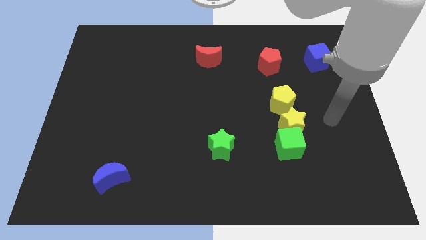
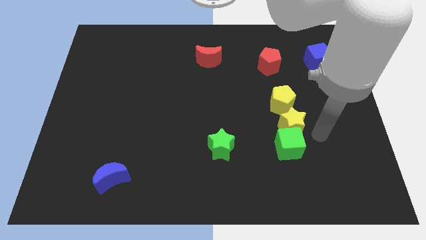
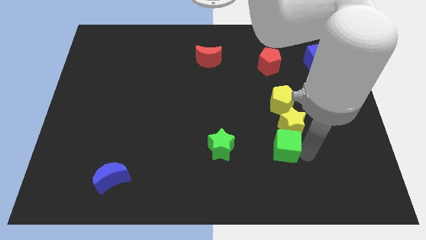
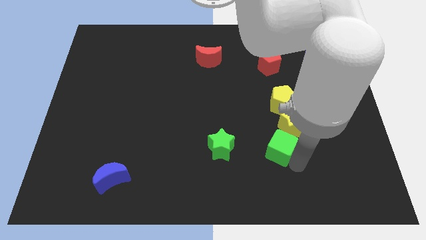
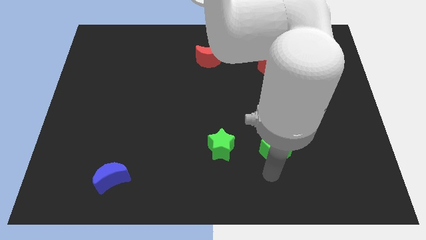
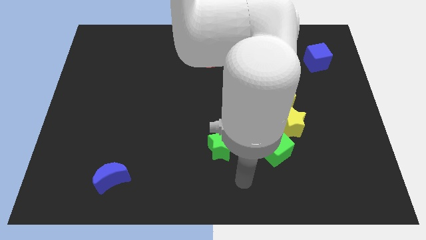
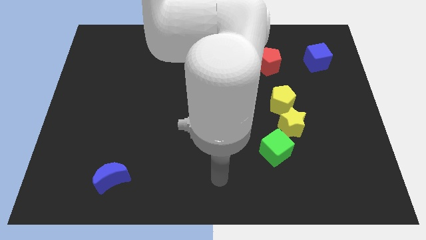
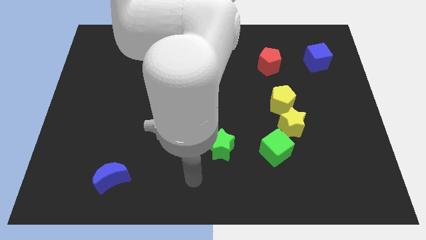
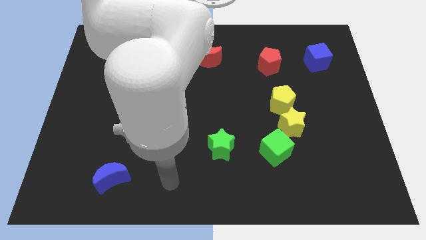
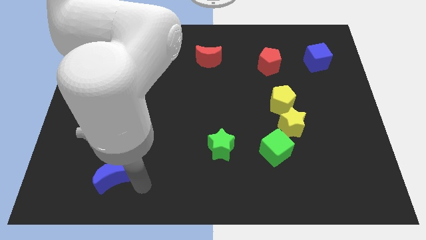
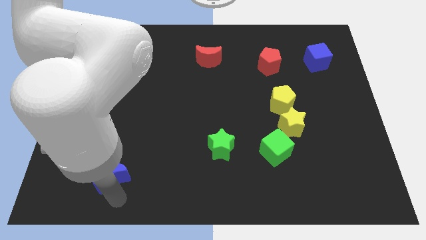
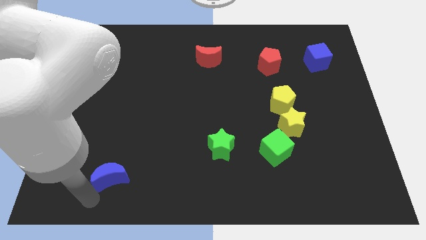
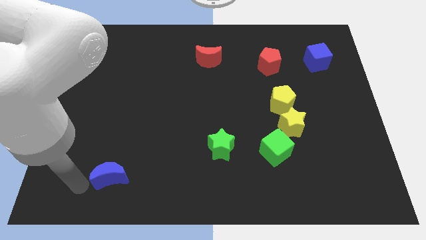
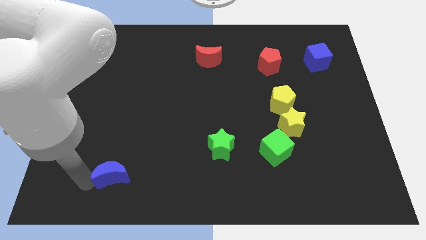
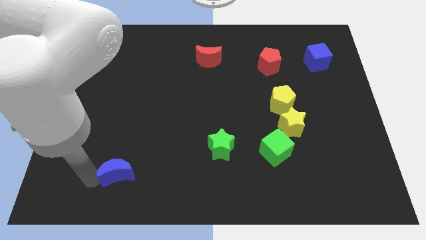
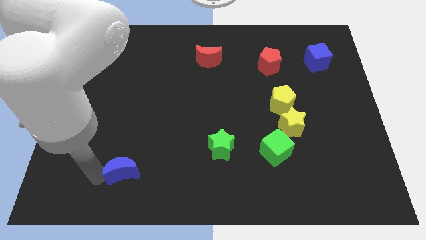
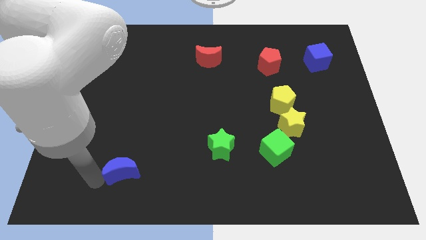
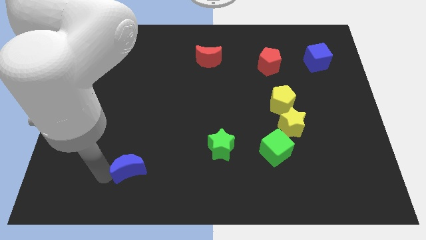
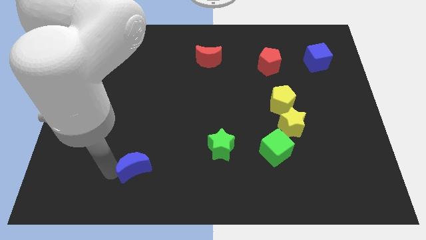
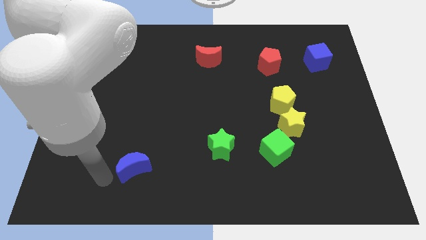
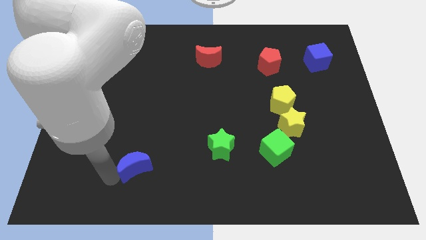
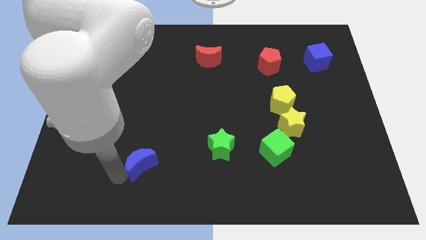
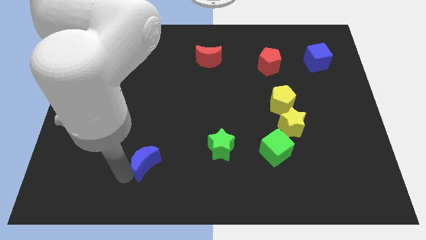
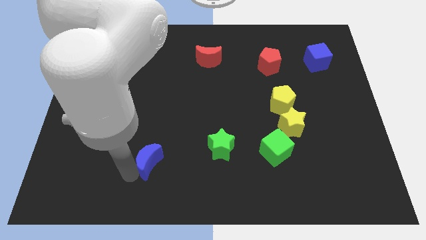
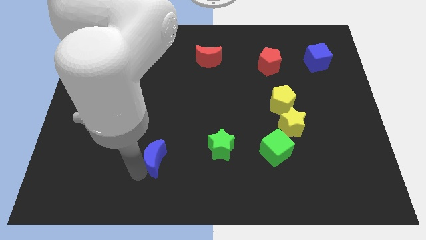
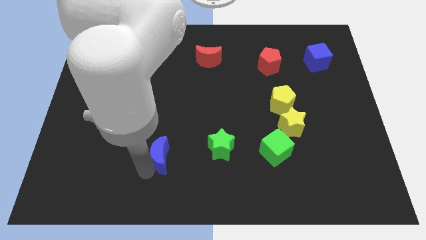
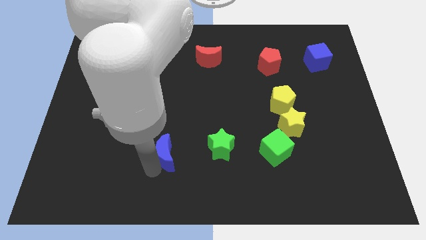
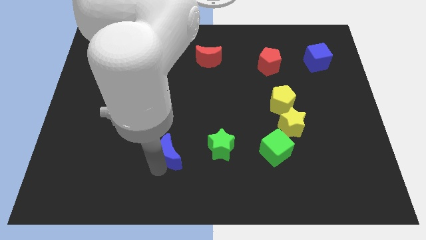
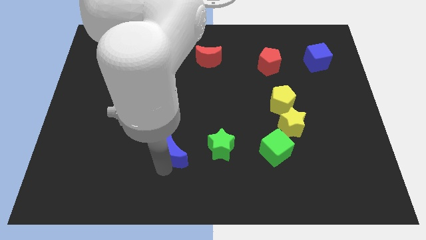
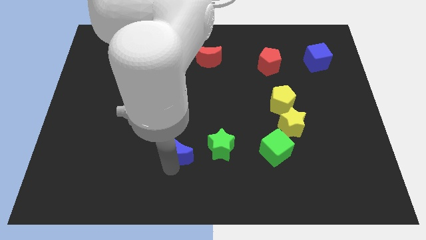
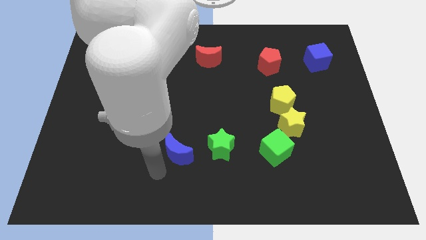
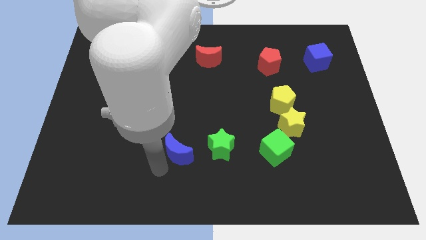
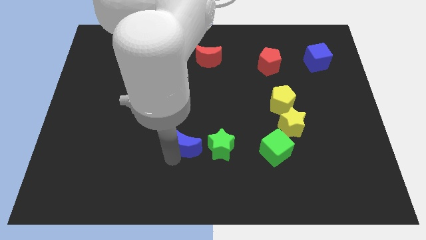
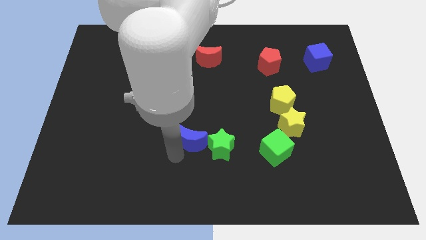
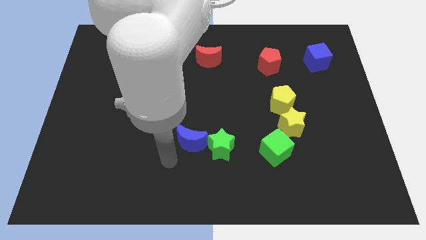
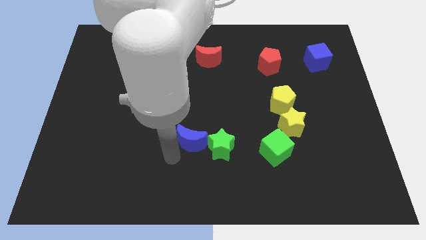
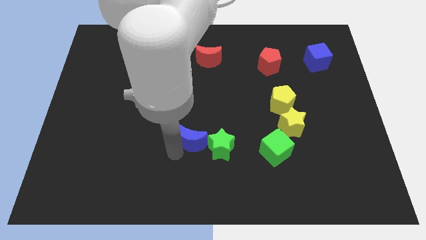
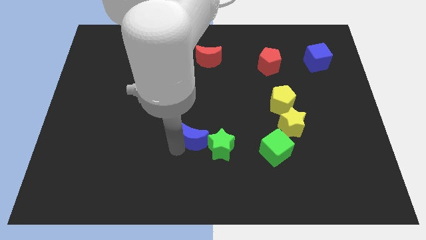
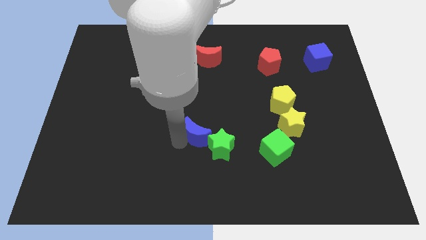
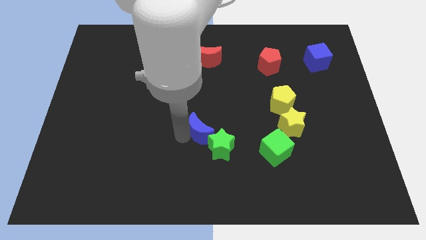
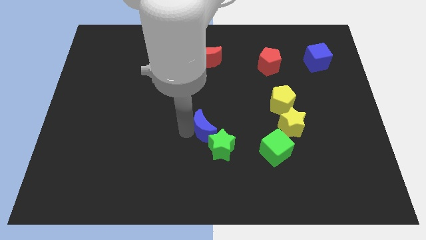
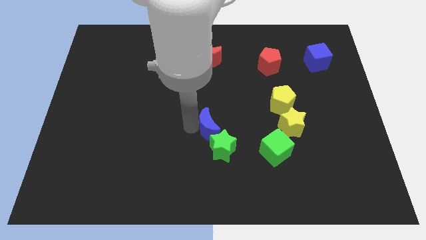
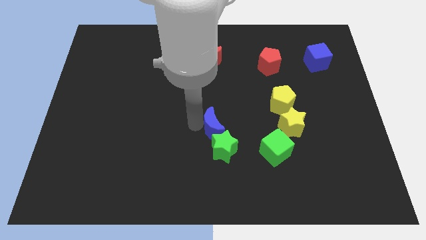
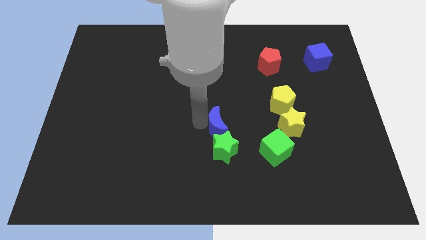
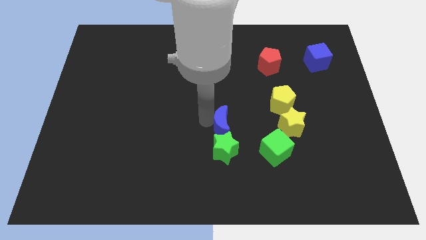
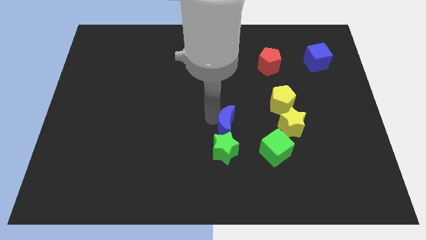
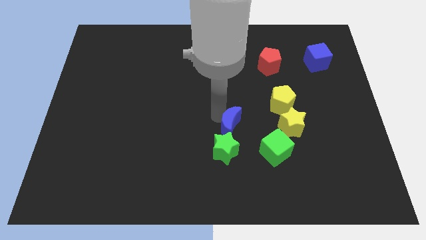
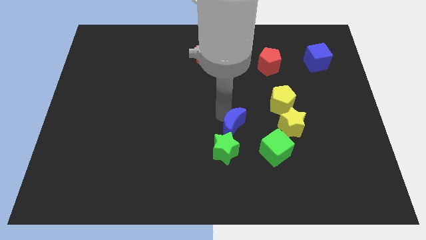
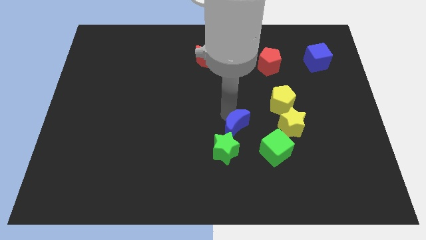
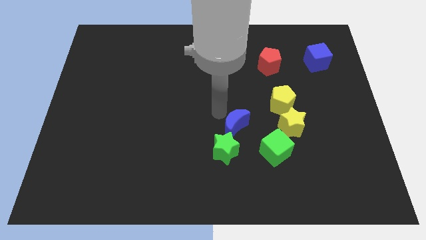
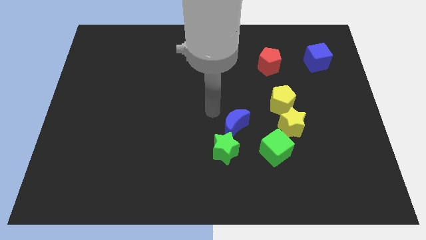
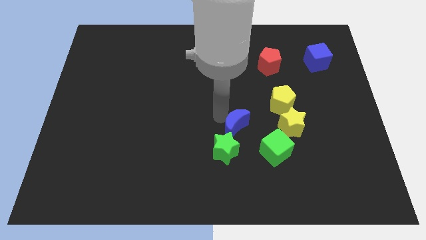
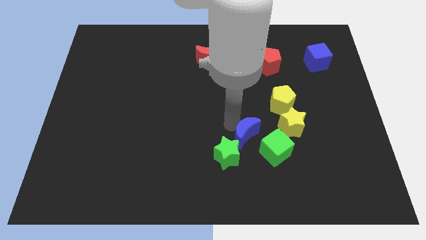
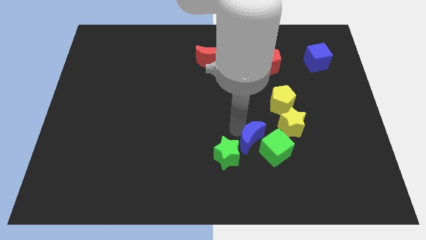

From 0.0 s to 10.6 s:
put the blue moon to the bottom left side of the yellow star

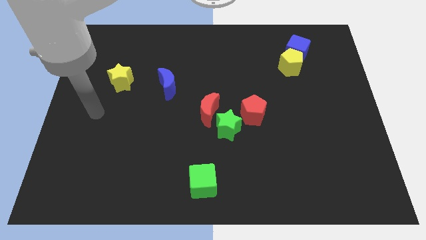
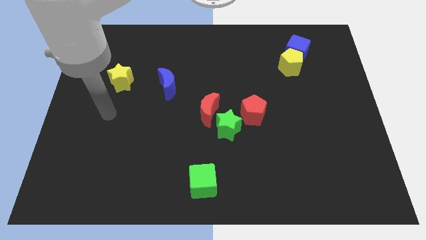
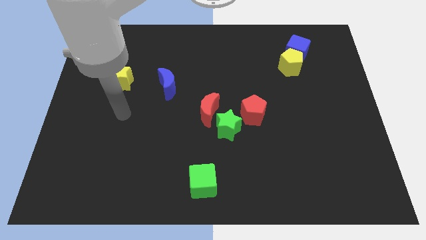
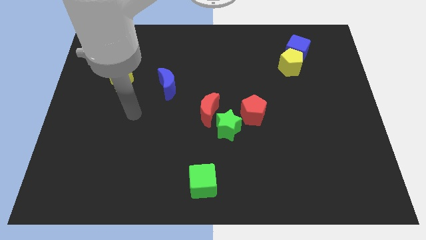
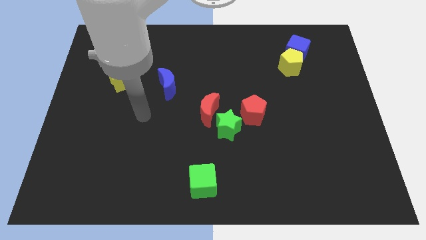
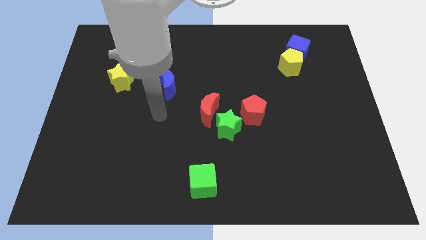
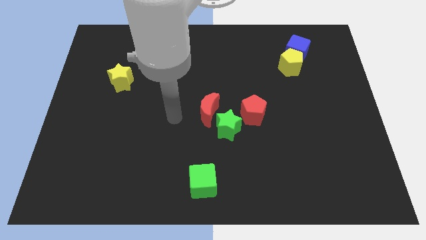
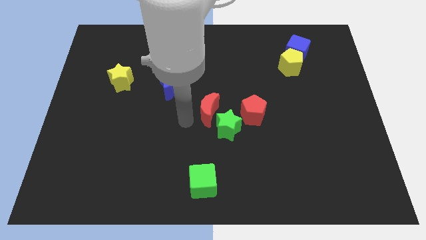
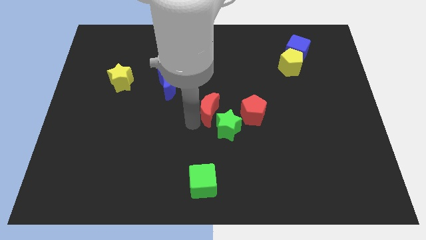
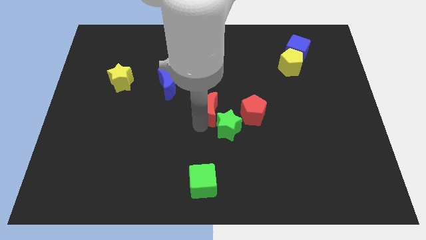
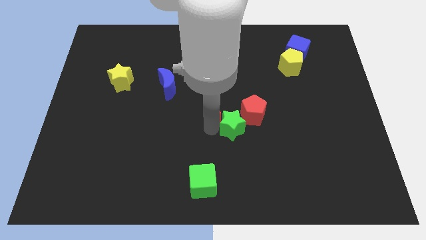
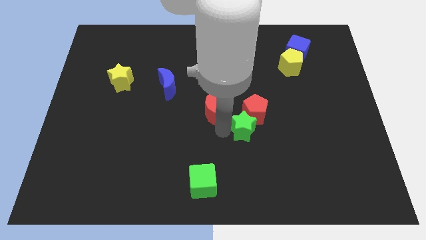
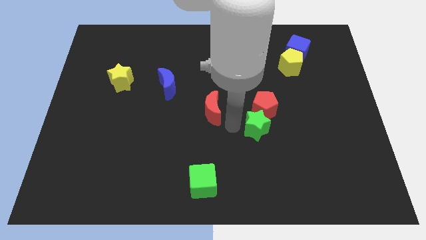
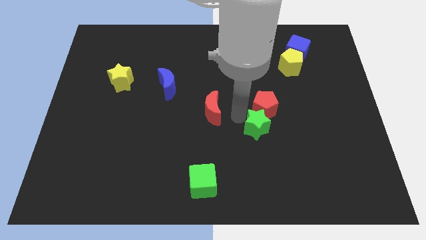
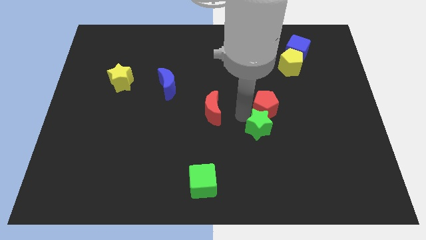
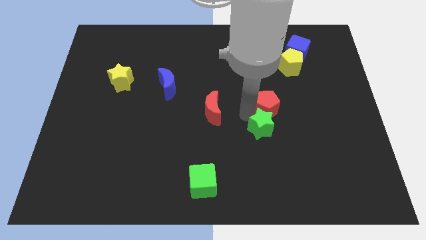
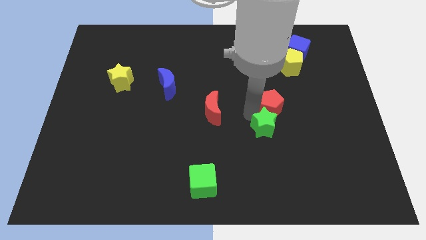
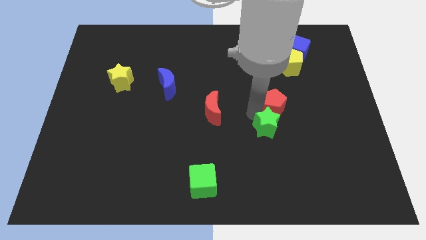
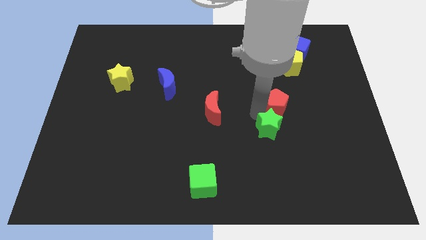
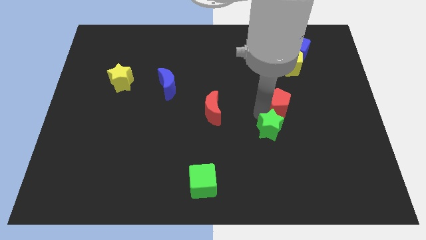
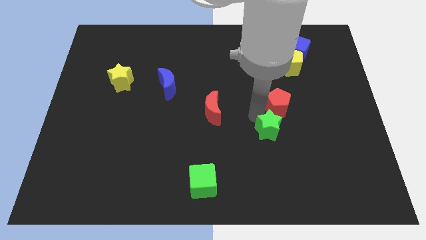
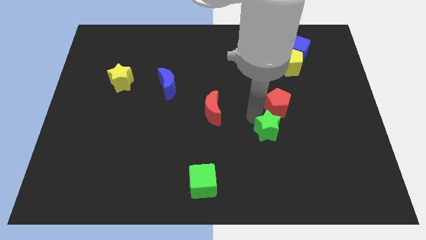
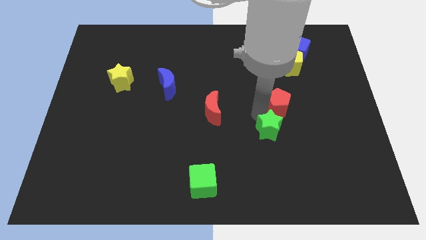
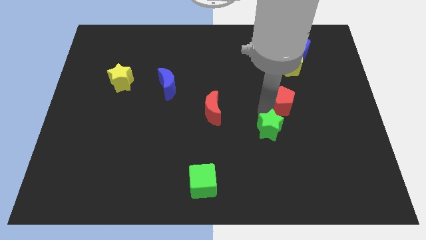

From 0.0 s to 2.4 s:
put the red pentagon to the bottom of the yellow pentagon

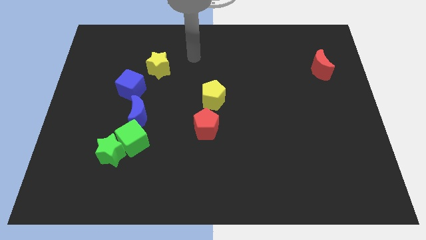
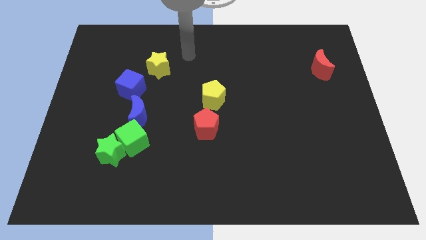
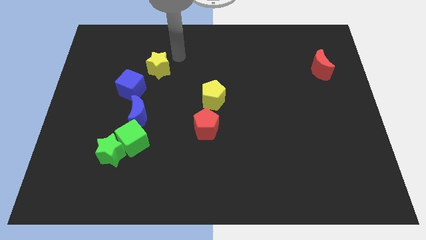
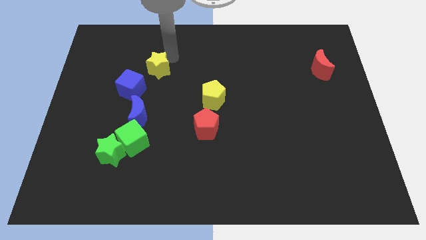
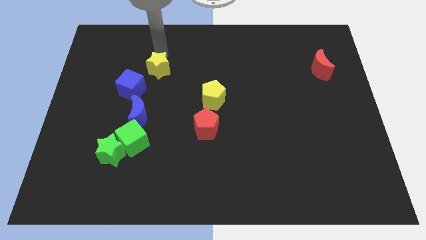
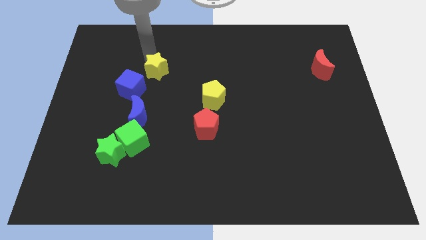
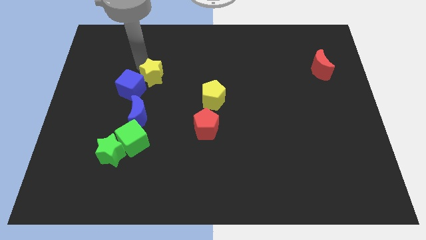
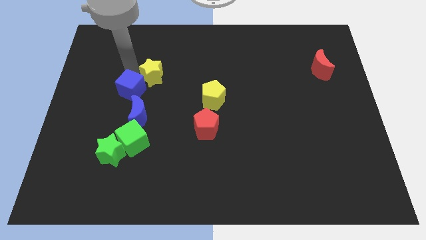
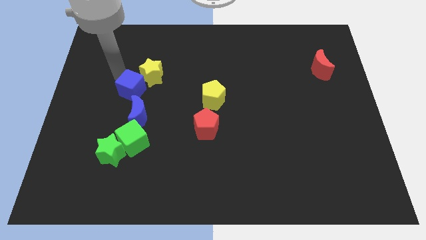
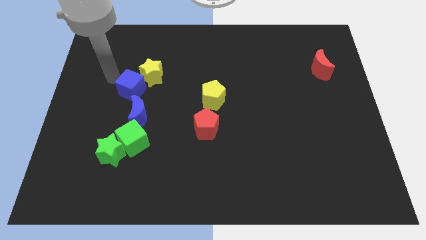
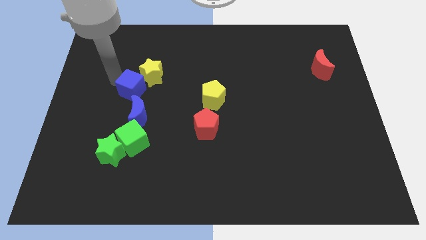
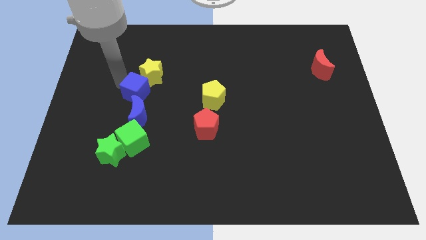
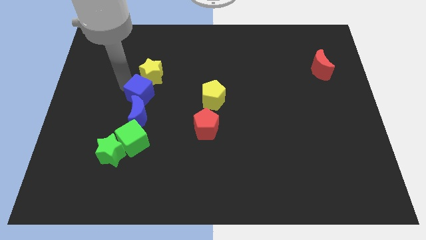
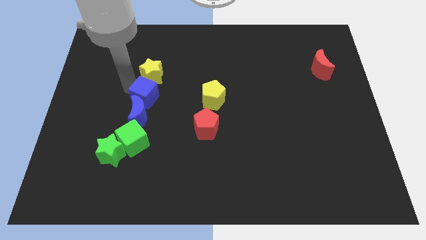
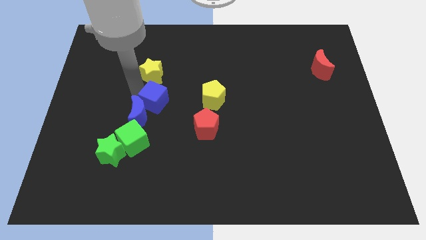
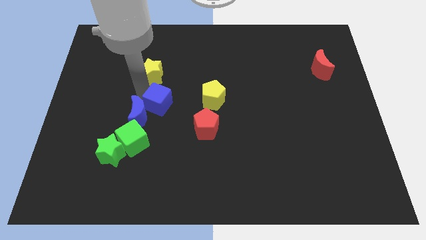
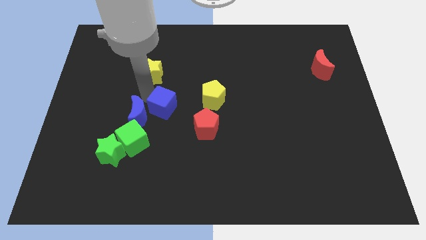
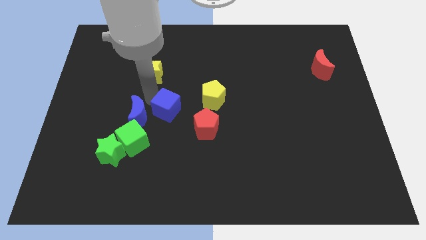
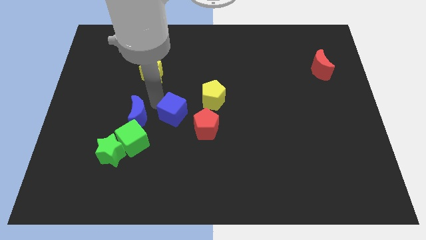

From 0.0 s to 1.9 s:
slide the blue cube to the bottom left side of the yellow pentagon
